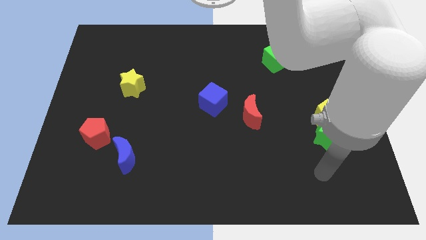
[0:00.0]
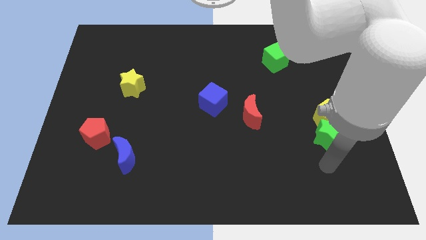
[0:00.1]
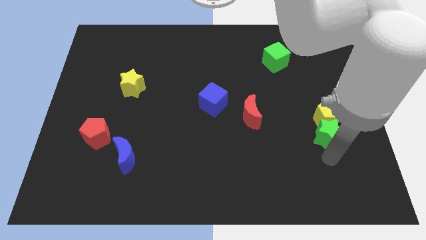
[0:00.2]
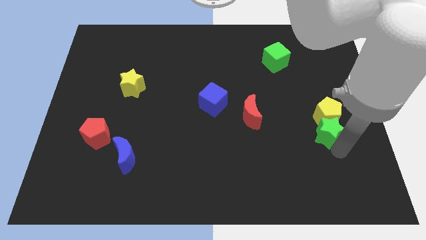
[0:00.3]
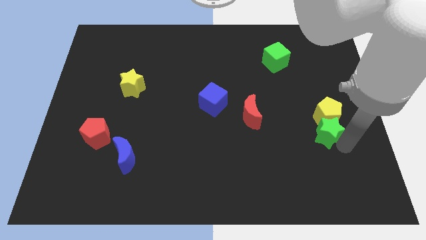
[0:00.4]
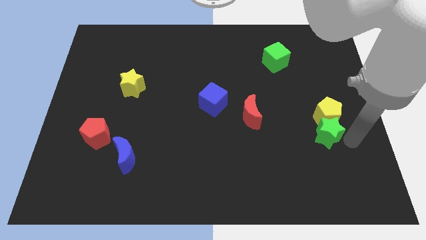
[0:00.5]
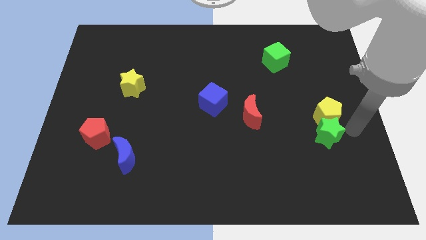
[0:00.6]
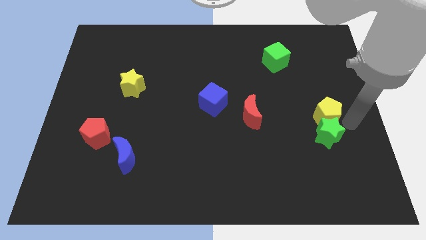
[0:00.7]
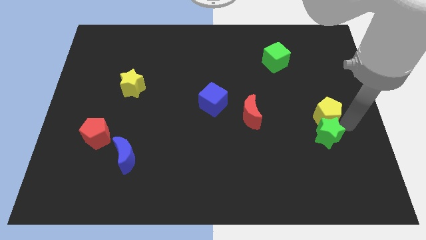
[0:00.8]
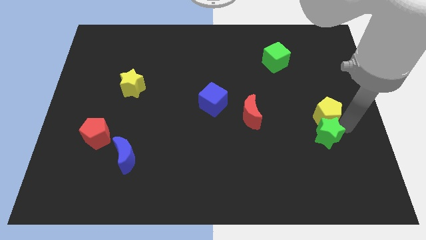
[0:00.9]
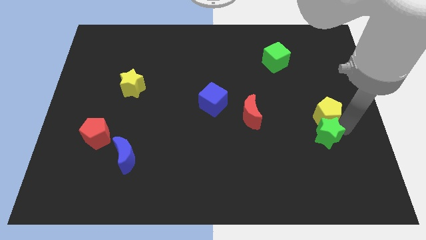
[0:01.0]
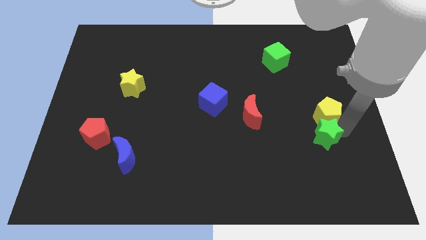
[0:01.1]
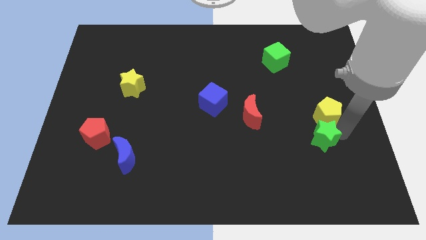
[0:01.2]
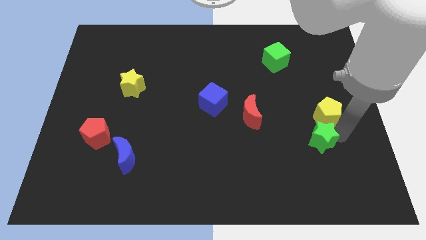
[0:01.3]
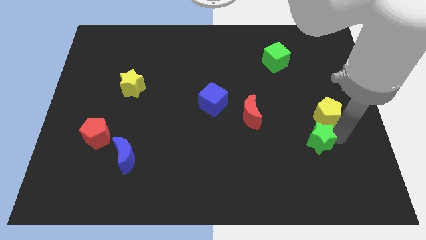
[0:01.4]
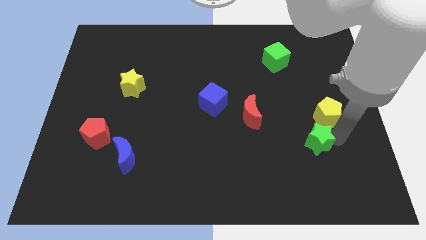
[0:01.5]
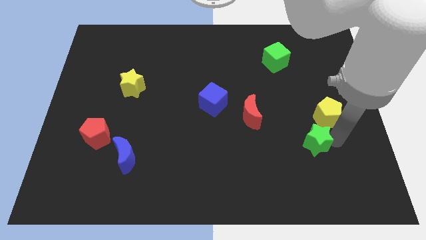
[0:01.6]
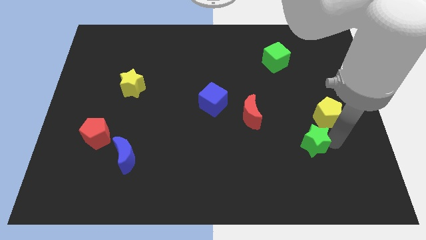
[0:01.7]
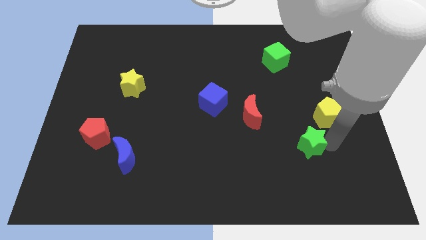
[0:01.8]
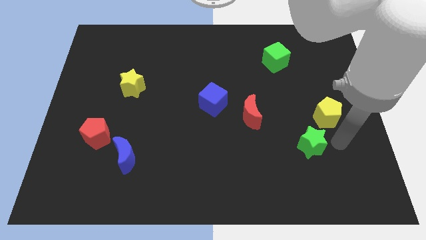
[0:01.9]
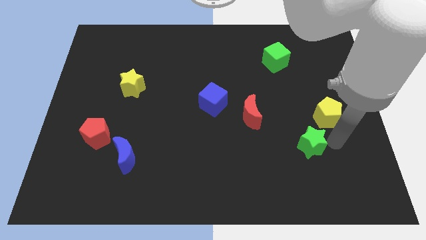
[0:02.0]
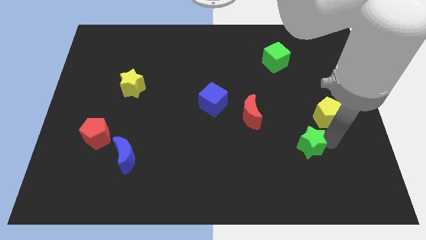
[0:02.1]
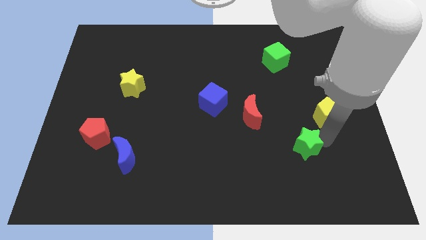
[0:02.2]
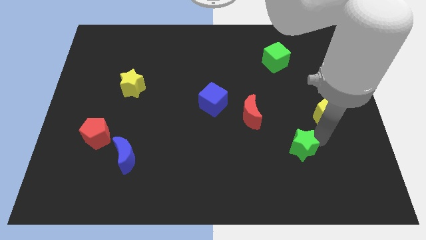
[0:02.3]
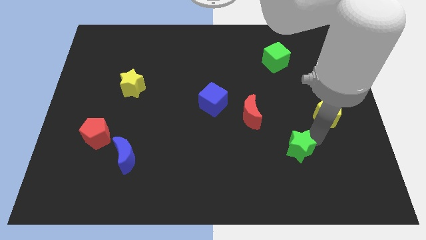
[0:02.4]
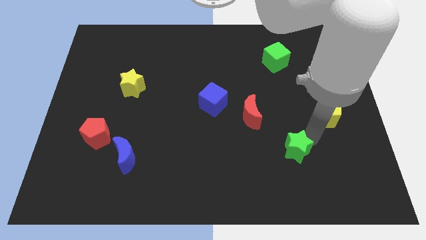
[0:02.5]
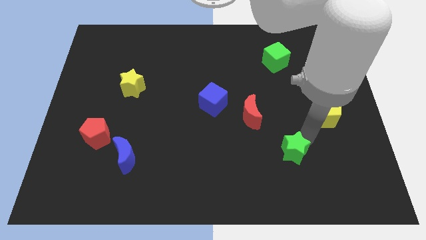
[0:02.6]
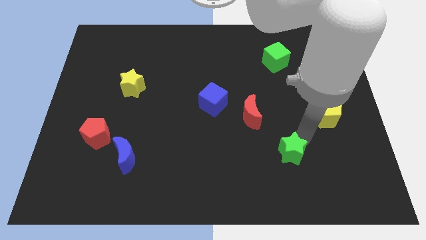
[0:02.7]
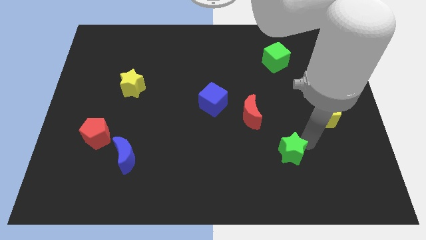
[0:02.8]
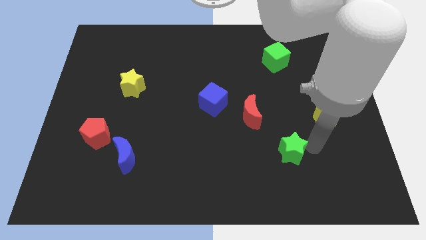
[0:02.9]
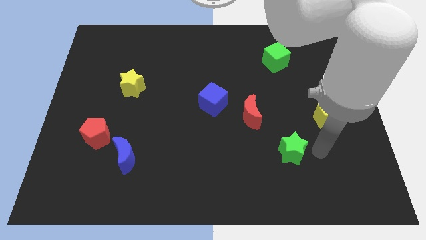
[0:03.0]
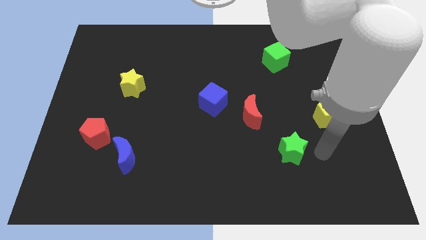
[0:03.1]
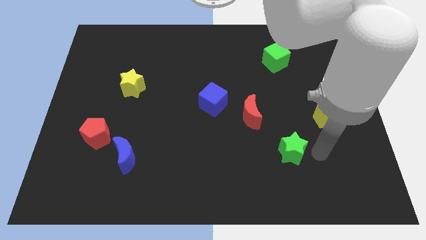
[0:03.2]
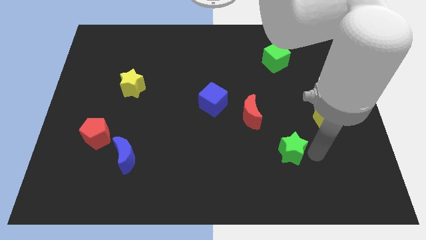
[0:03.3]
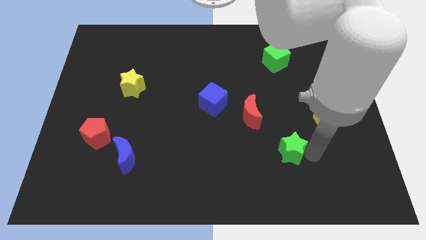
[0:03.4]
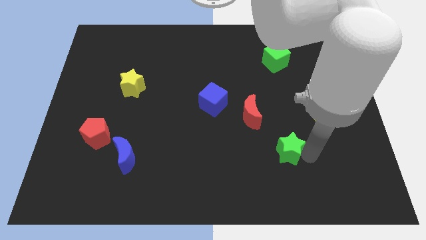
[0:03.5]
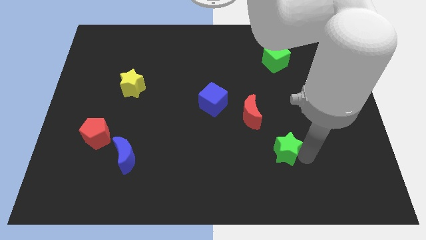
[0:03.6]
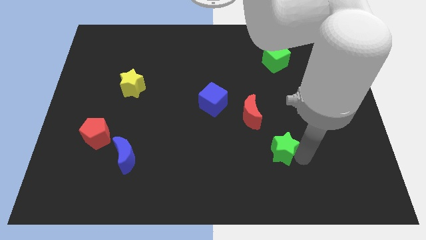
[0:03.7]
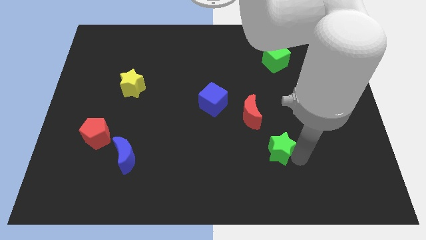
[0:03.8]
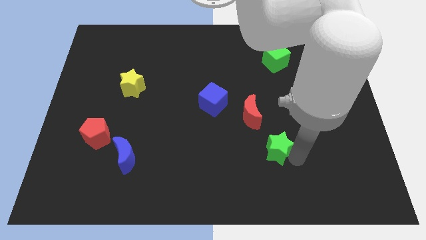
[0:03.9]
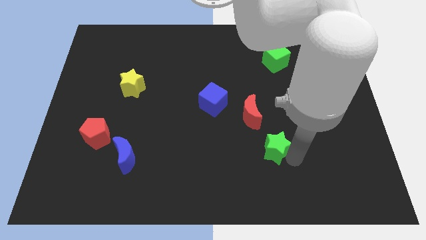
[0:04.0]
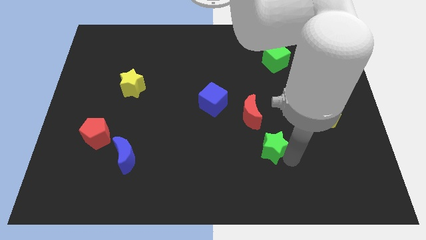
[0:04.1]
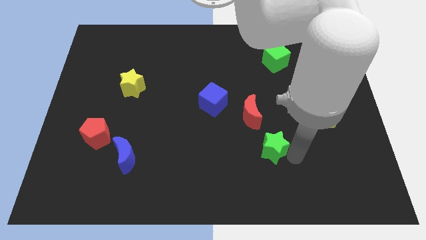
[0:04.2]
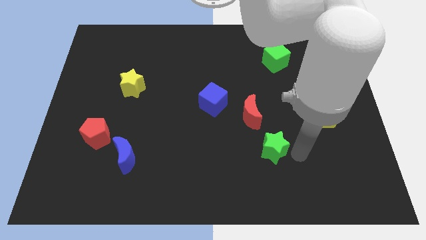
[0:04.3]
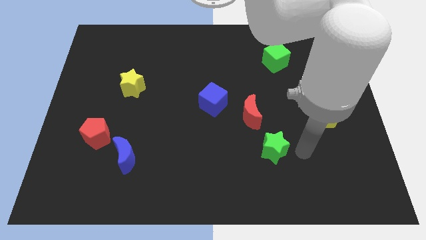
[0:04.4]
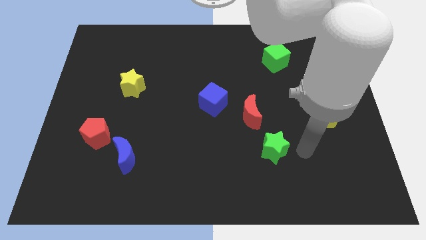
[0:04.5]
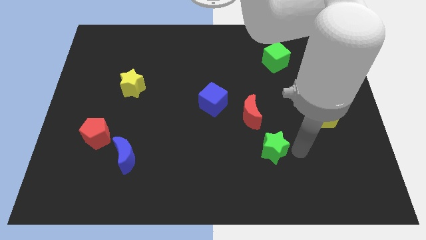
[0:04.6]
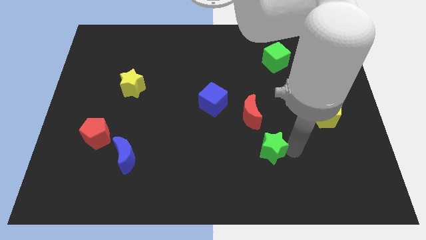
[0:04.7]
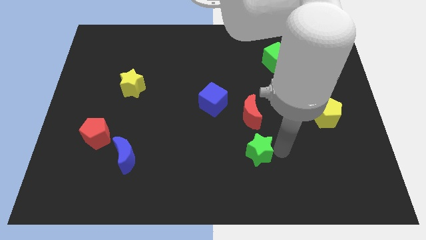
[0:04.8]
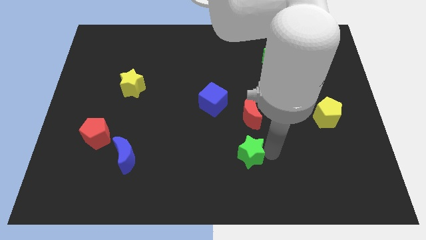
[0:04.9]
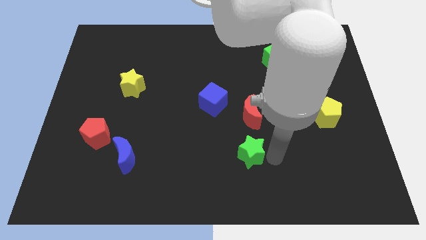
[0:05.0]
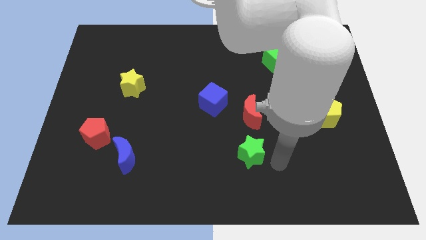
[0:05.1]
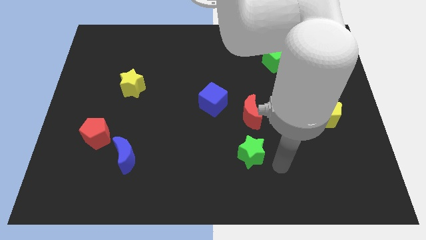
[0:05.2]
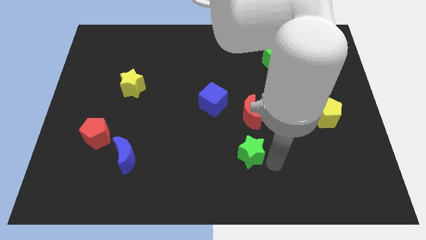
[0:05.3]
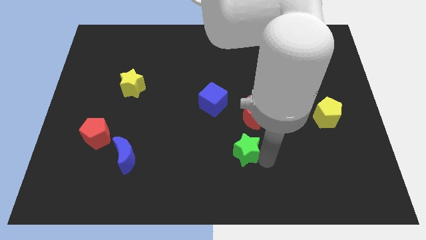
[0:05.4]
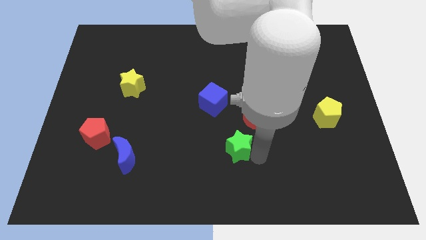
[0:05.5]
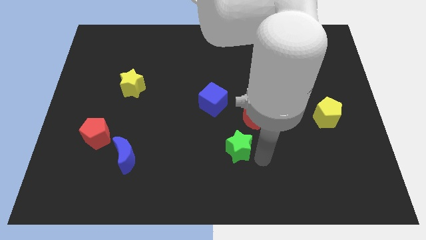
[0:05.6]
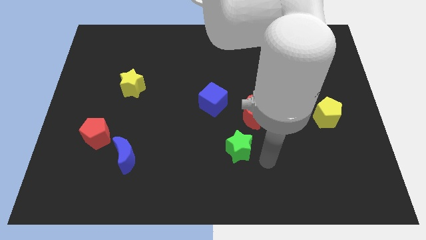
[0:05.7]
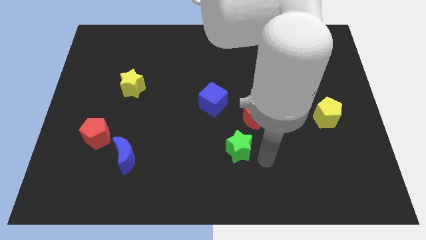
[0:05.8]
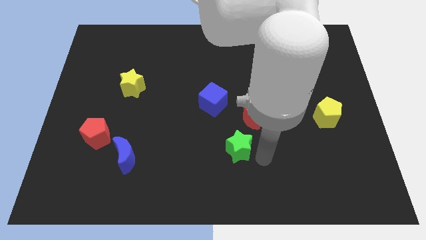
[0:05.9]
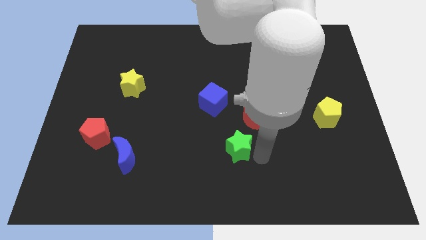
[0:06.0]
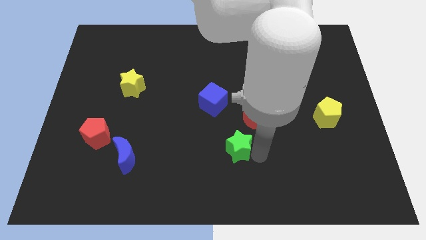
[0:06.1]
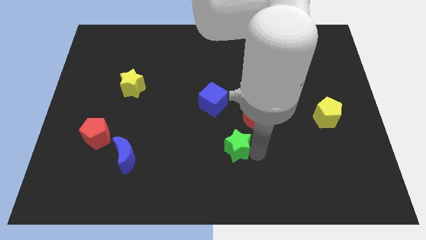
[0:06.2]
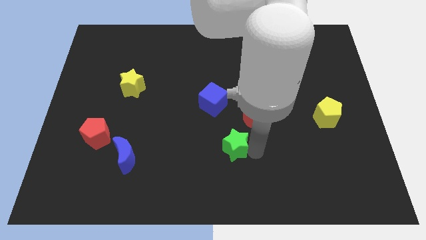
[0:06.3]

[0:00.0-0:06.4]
push the green star left

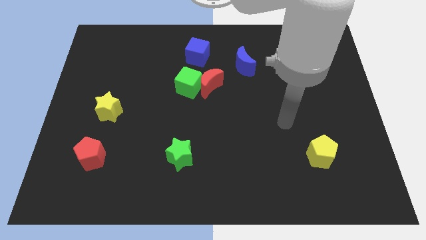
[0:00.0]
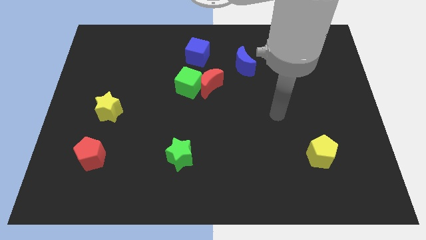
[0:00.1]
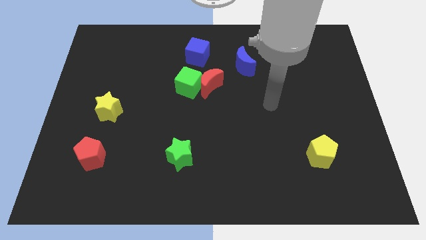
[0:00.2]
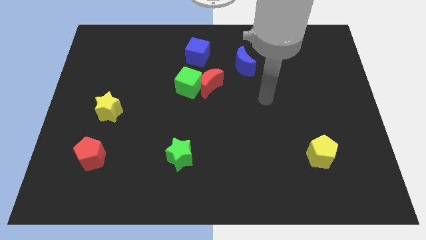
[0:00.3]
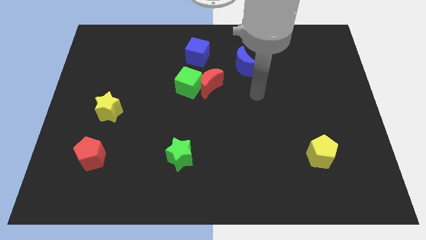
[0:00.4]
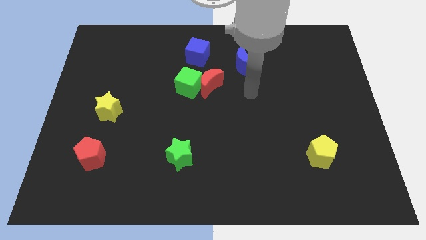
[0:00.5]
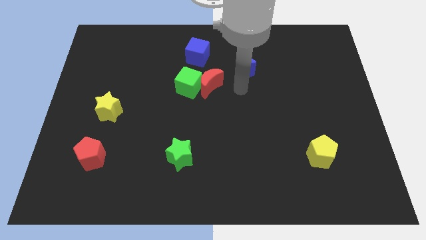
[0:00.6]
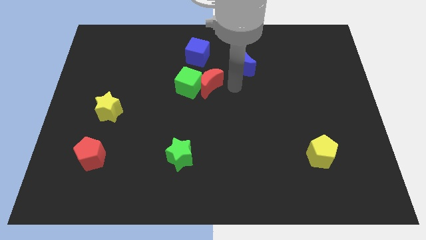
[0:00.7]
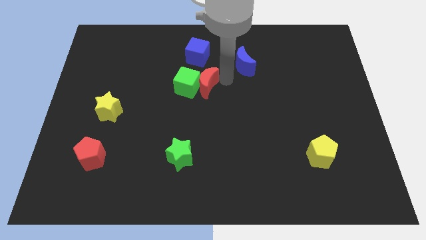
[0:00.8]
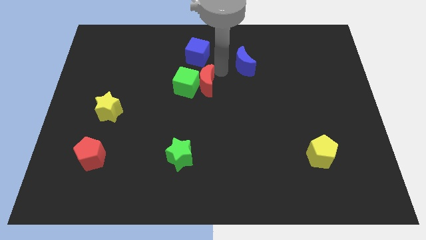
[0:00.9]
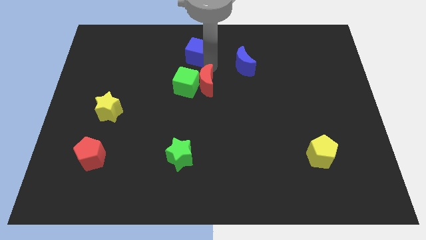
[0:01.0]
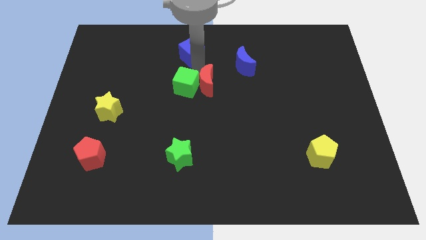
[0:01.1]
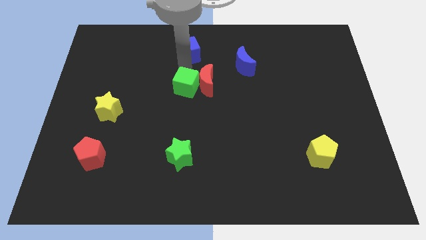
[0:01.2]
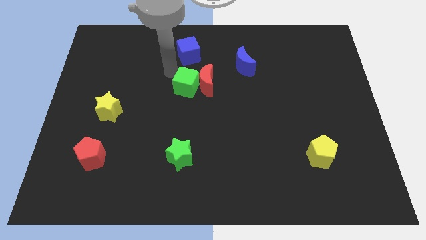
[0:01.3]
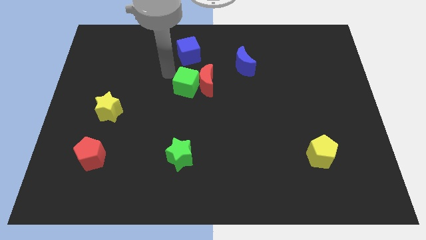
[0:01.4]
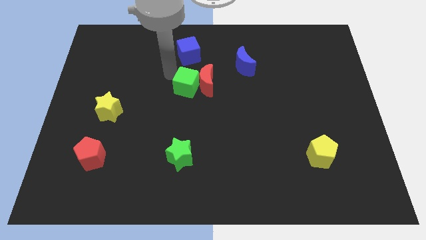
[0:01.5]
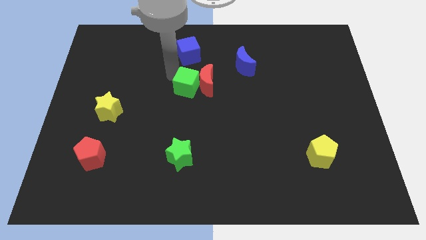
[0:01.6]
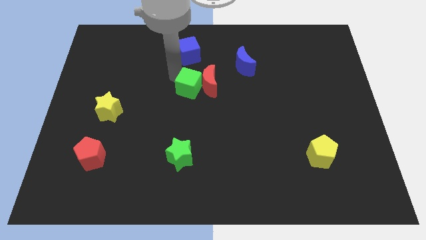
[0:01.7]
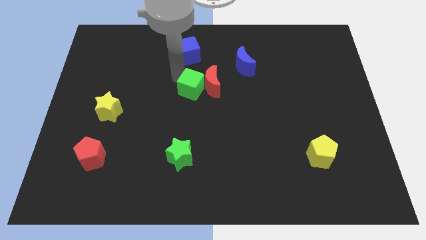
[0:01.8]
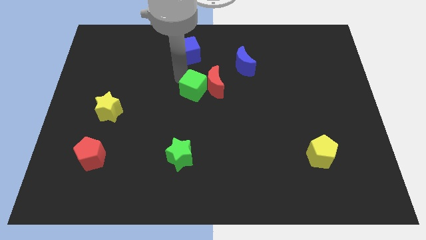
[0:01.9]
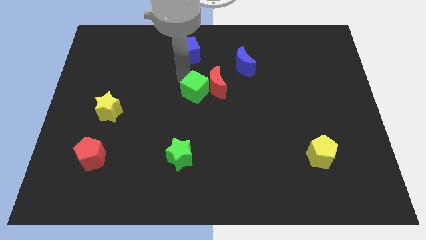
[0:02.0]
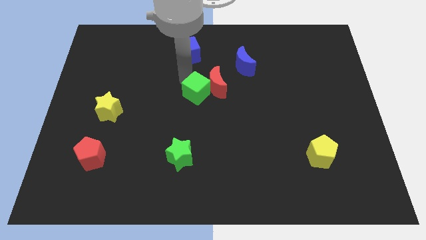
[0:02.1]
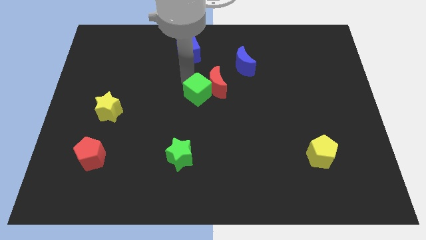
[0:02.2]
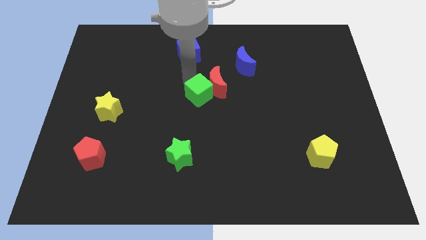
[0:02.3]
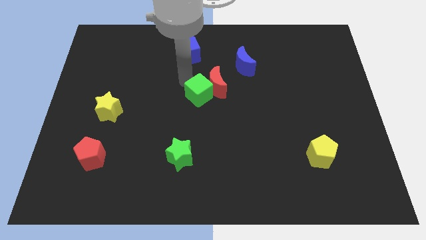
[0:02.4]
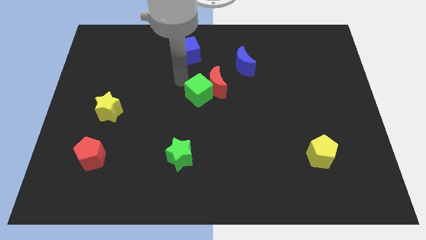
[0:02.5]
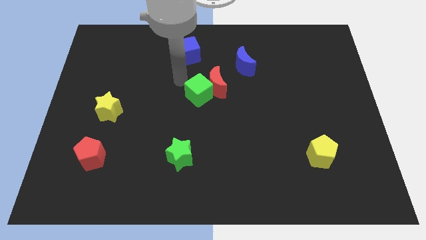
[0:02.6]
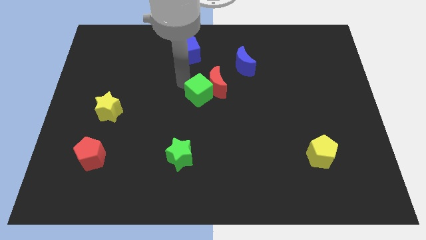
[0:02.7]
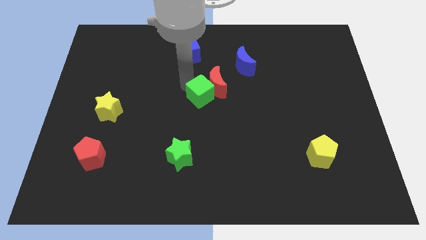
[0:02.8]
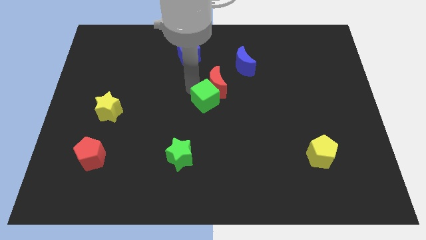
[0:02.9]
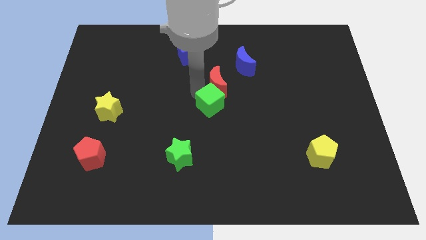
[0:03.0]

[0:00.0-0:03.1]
push the green cube down and to the right diagonally slightly
